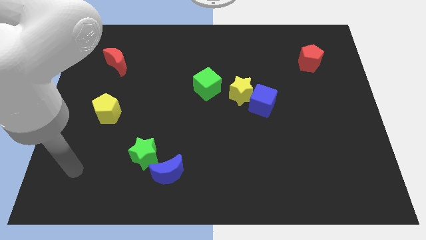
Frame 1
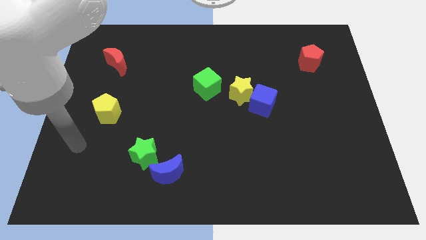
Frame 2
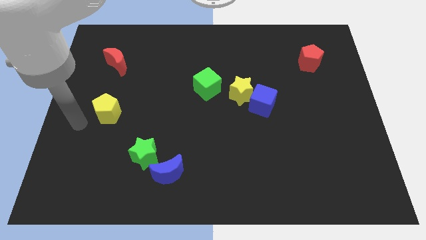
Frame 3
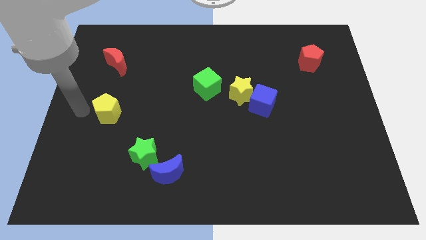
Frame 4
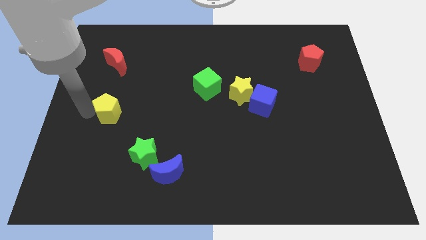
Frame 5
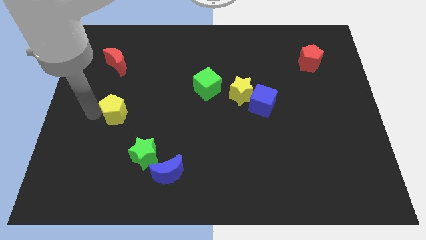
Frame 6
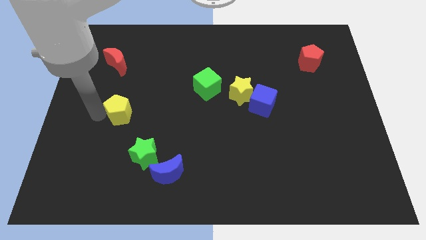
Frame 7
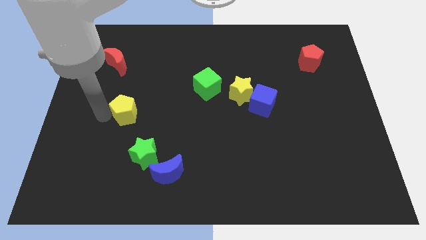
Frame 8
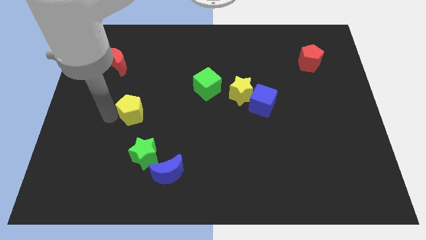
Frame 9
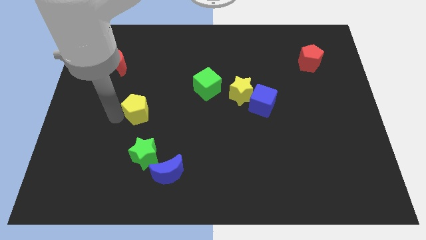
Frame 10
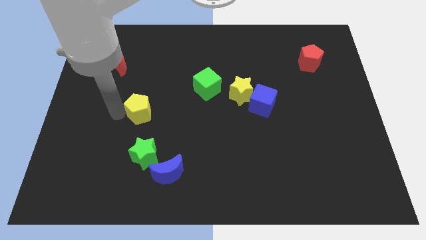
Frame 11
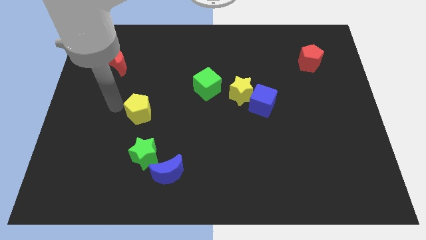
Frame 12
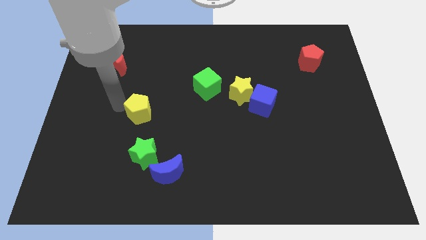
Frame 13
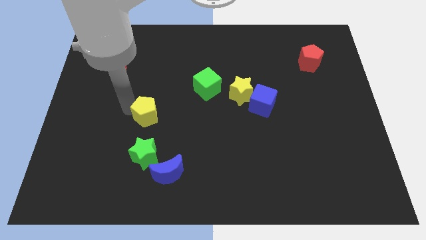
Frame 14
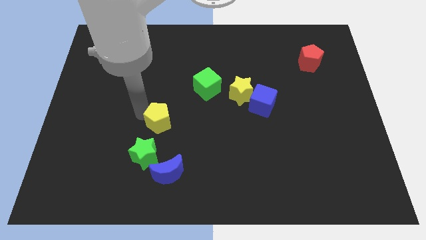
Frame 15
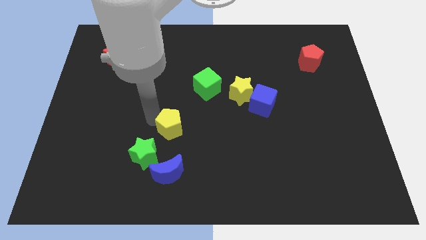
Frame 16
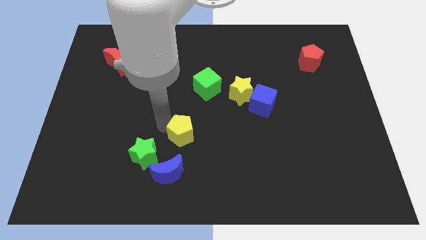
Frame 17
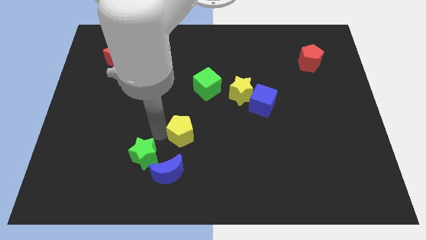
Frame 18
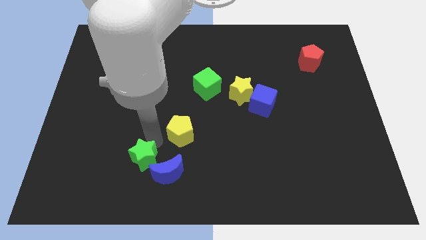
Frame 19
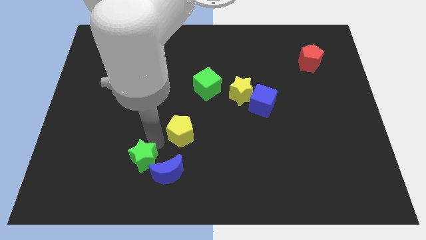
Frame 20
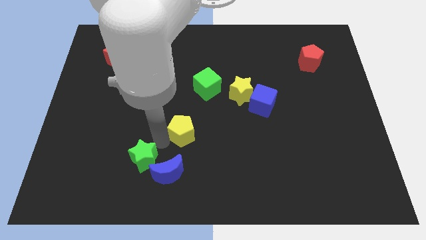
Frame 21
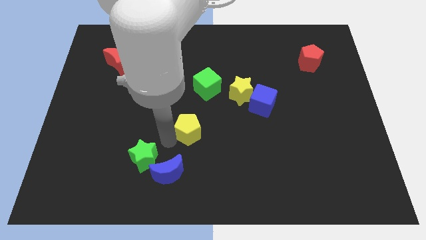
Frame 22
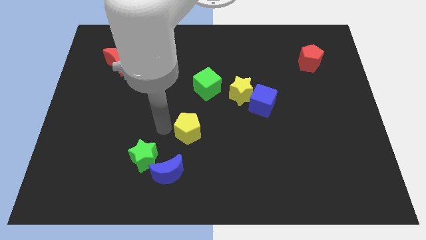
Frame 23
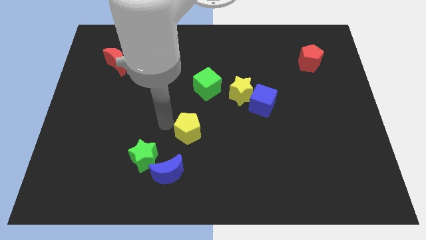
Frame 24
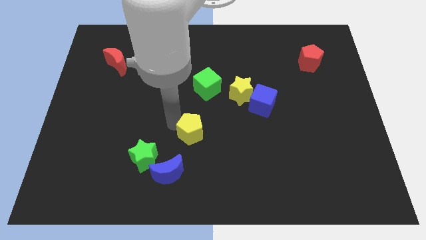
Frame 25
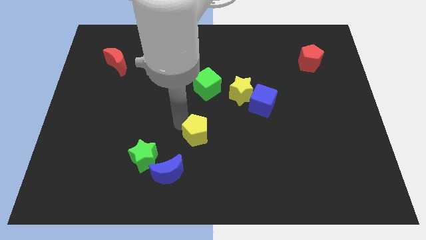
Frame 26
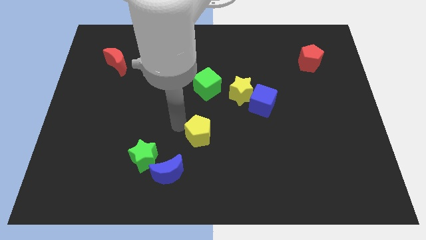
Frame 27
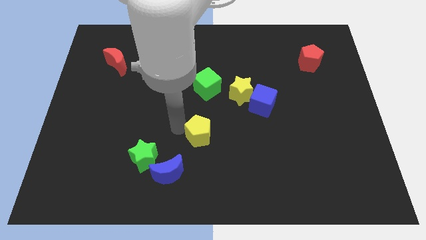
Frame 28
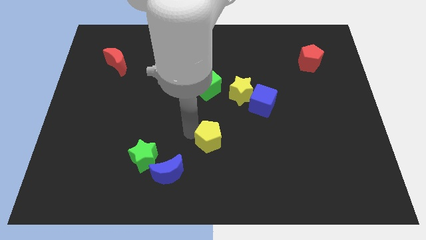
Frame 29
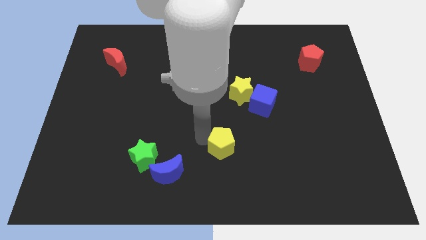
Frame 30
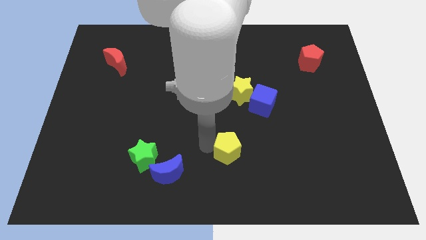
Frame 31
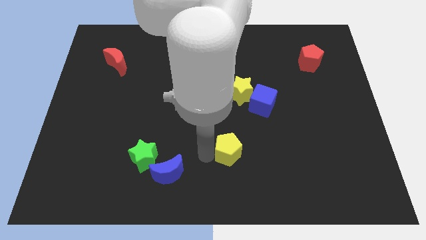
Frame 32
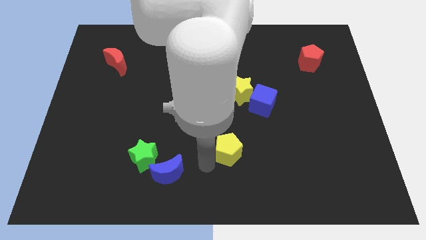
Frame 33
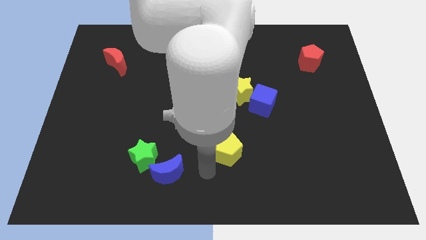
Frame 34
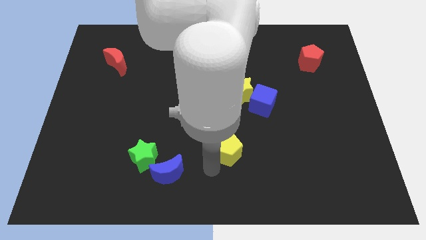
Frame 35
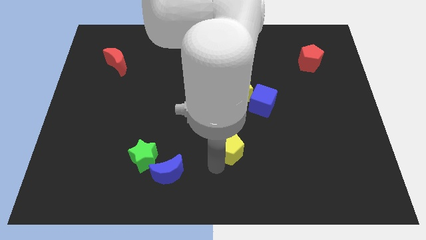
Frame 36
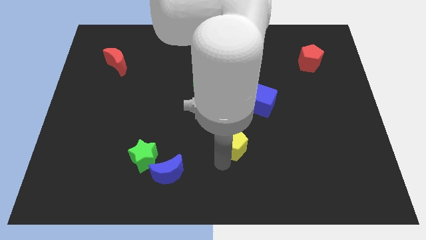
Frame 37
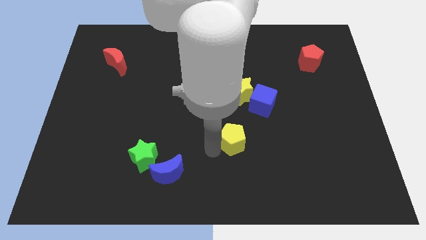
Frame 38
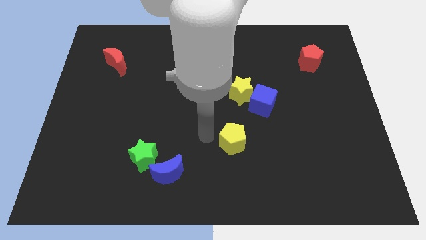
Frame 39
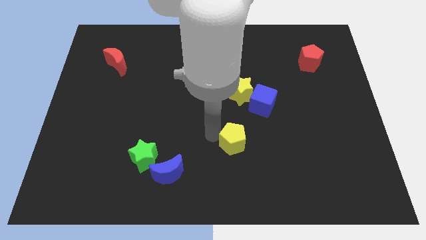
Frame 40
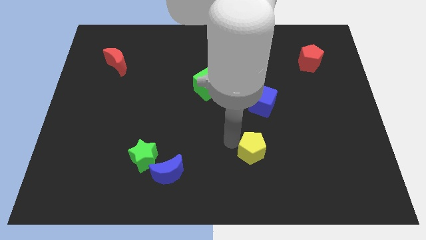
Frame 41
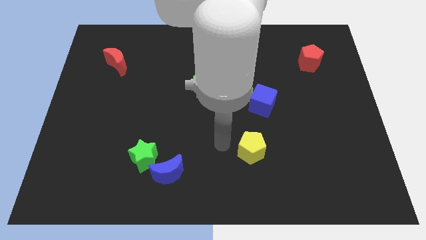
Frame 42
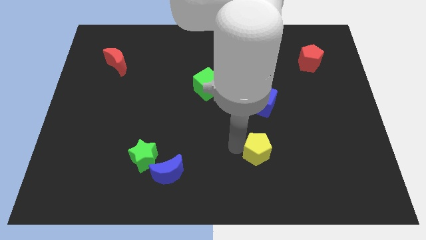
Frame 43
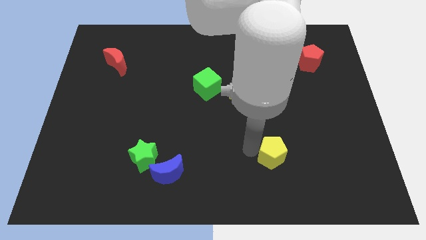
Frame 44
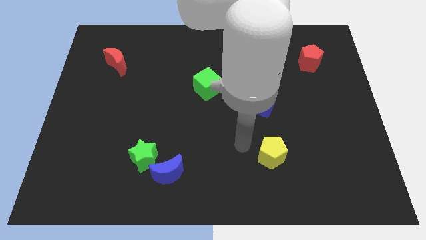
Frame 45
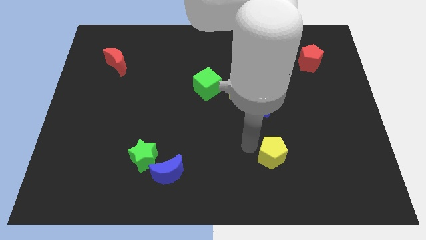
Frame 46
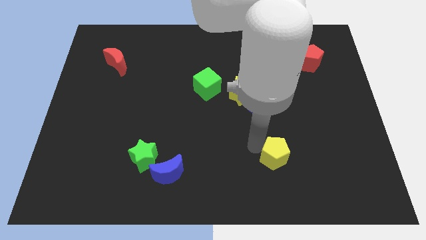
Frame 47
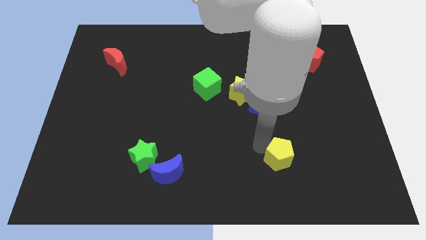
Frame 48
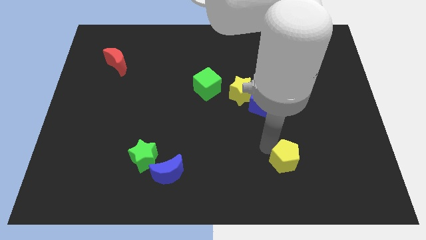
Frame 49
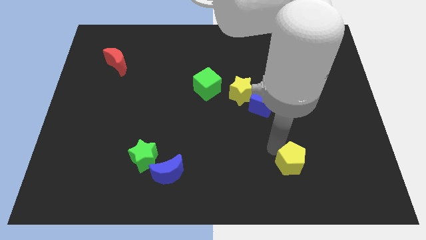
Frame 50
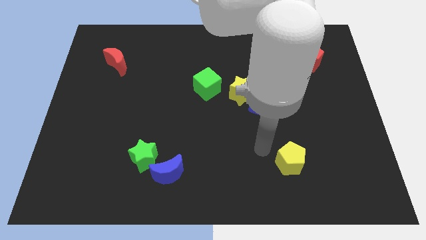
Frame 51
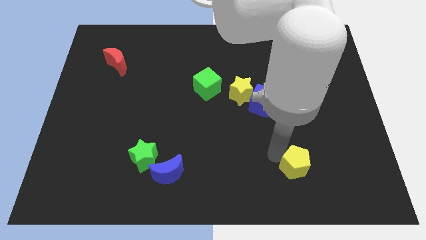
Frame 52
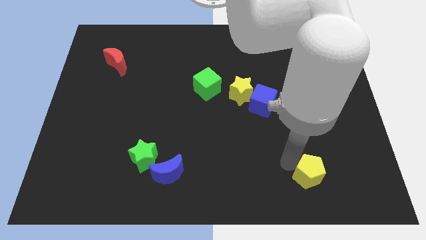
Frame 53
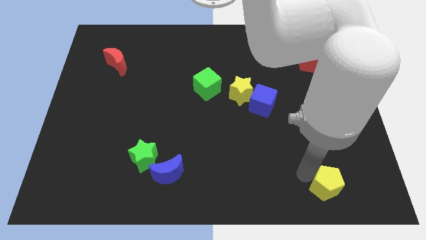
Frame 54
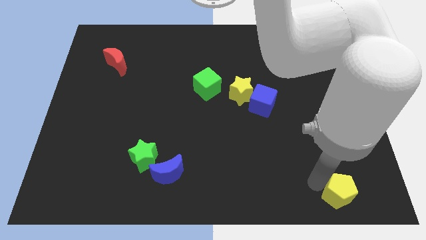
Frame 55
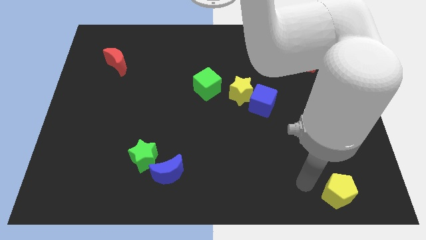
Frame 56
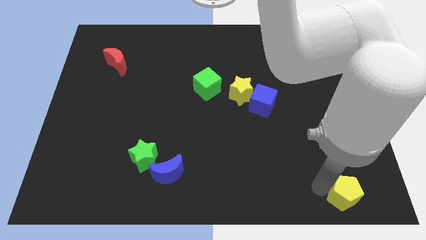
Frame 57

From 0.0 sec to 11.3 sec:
move the yellow pentagon to the lower right corner

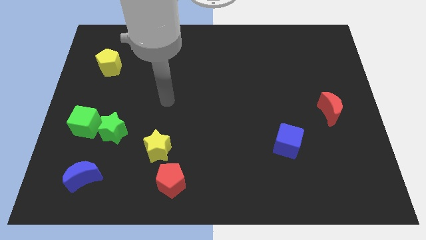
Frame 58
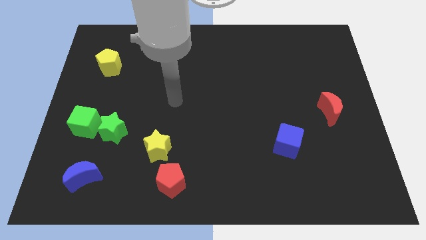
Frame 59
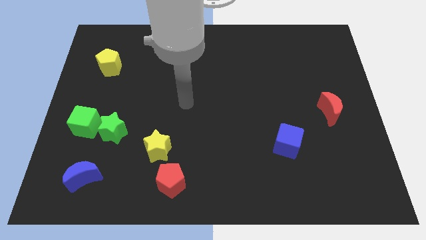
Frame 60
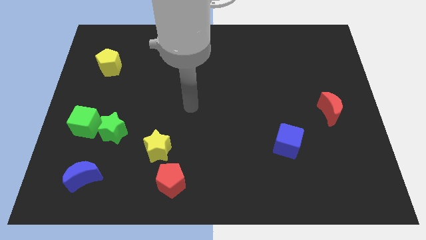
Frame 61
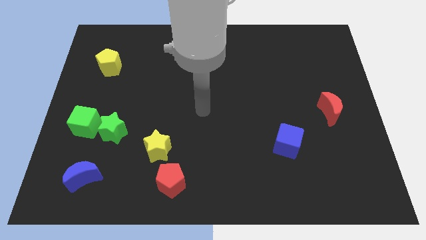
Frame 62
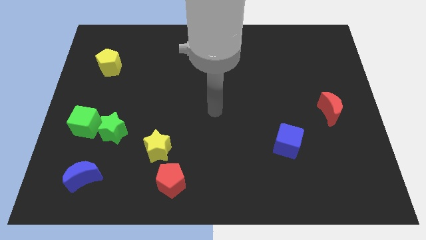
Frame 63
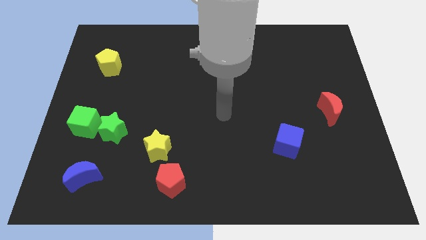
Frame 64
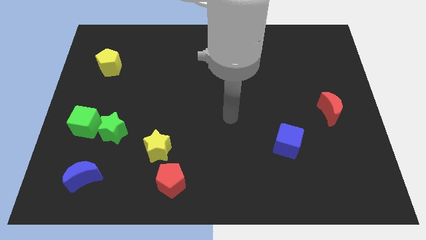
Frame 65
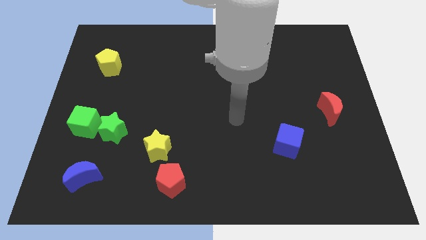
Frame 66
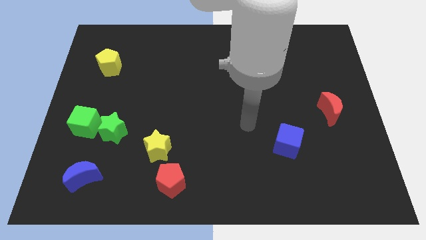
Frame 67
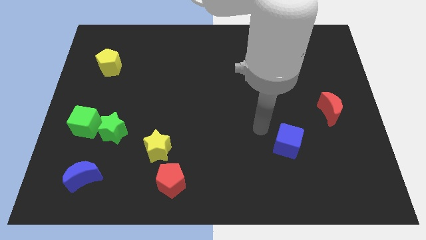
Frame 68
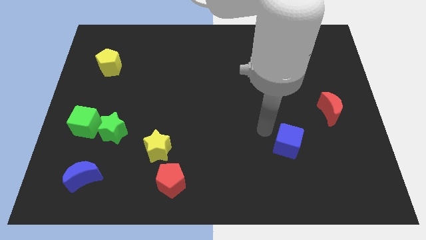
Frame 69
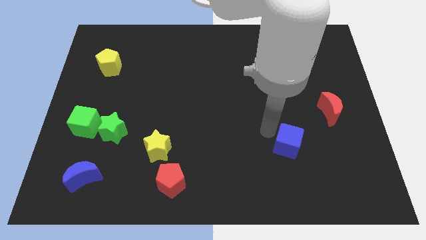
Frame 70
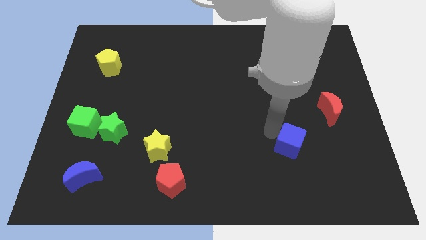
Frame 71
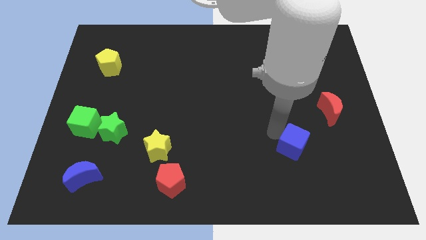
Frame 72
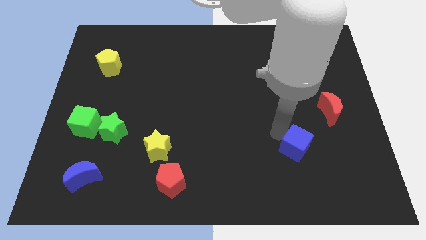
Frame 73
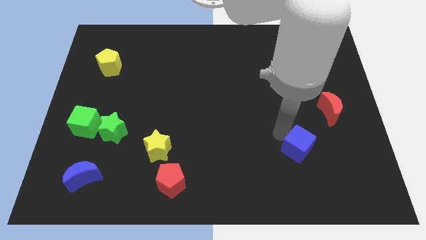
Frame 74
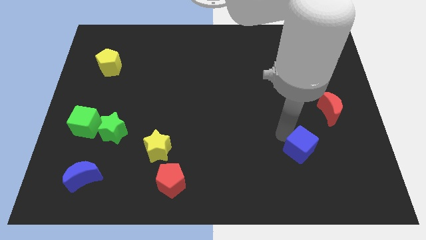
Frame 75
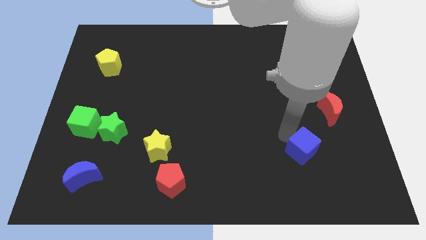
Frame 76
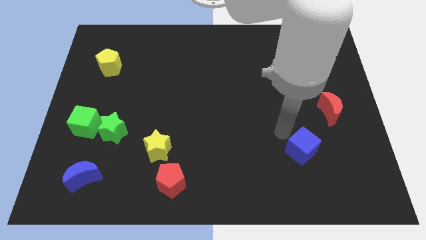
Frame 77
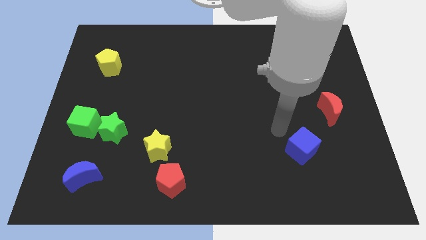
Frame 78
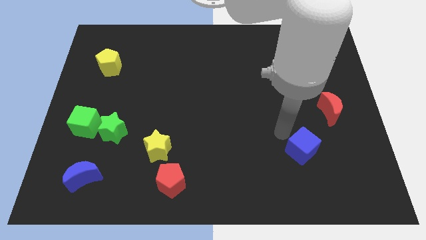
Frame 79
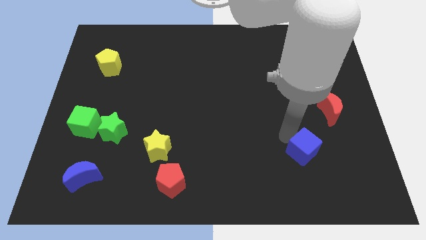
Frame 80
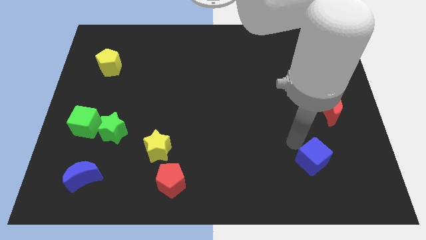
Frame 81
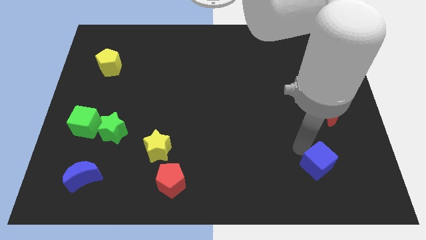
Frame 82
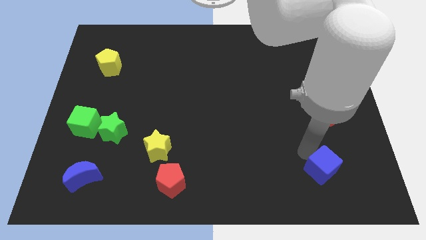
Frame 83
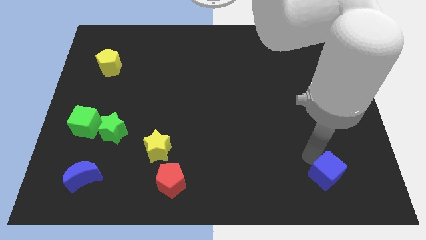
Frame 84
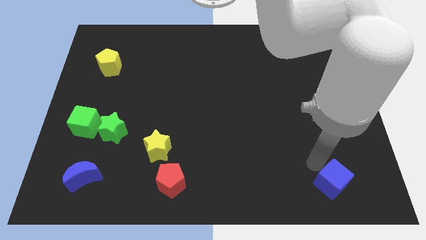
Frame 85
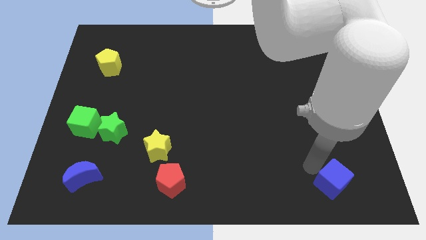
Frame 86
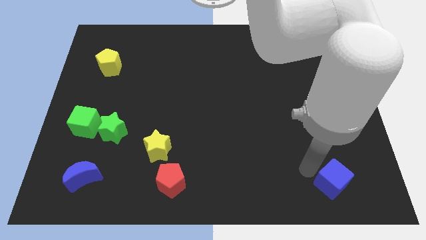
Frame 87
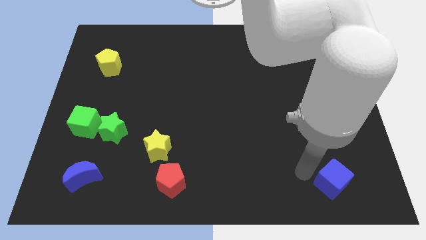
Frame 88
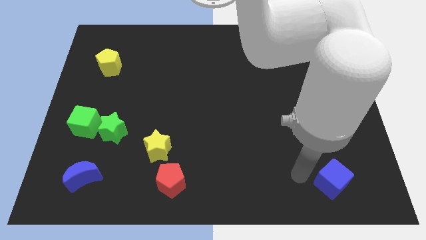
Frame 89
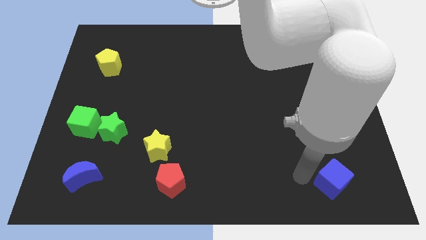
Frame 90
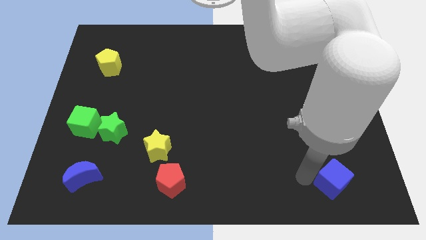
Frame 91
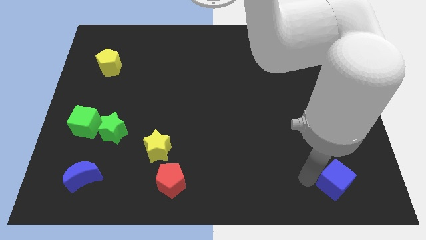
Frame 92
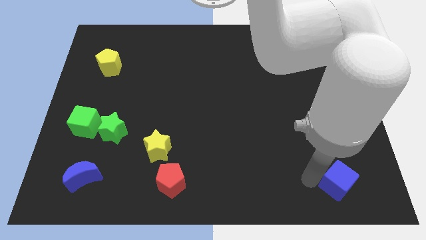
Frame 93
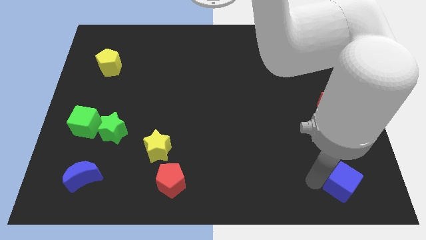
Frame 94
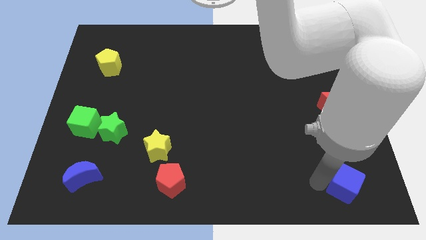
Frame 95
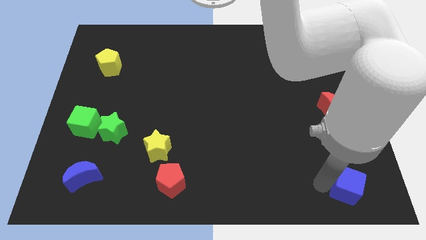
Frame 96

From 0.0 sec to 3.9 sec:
slide the blue cube to the lower right corner
